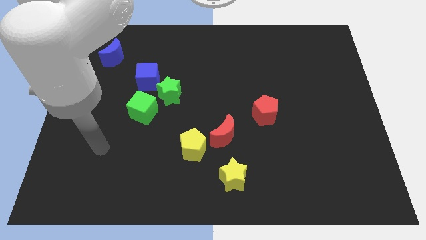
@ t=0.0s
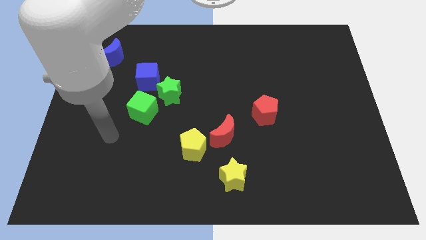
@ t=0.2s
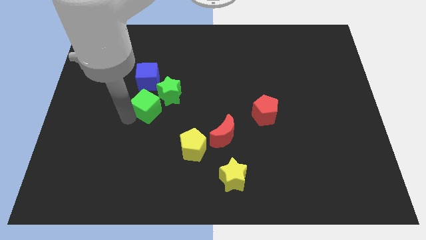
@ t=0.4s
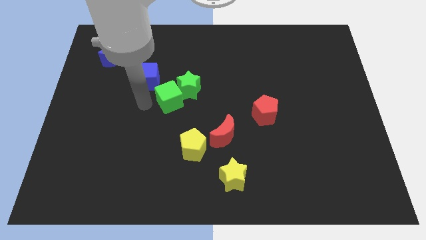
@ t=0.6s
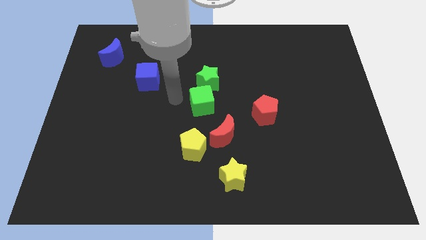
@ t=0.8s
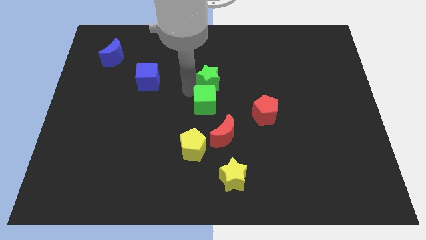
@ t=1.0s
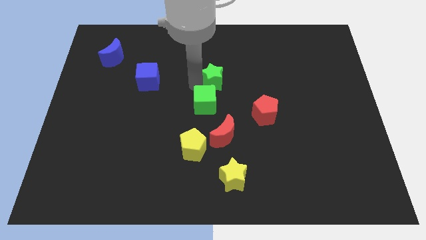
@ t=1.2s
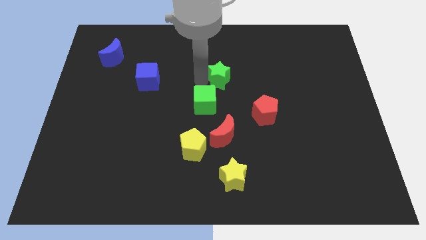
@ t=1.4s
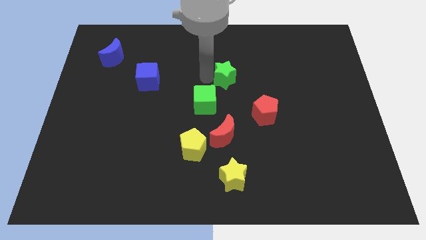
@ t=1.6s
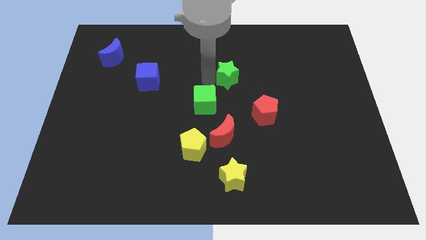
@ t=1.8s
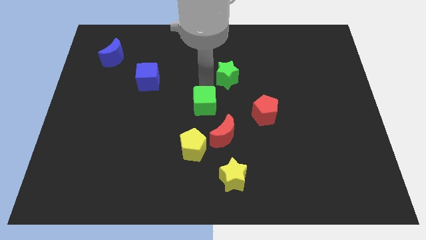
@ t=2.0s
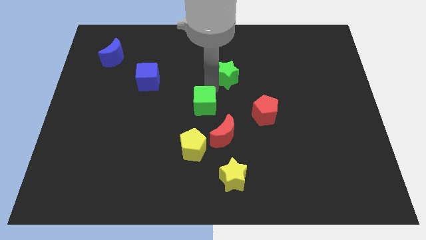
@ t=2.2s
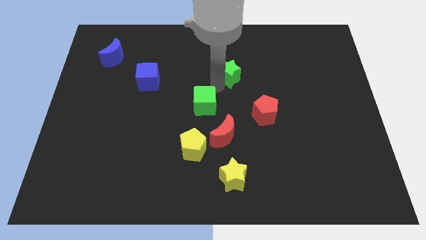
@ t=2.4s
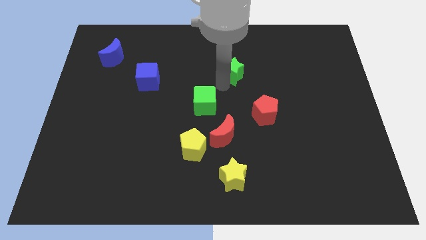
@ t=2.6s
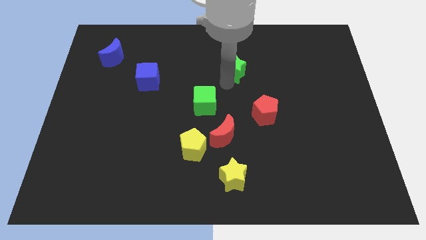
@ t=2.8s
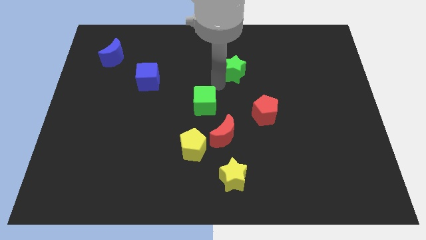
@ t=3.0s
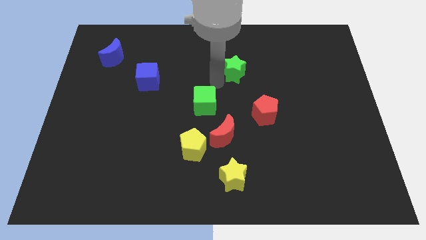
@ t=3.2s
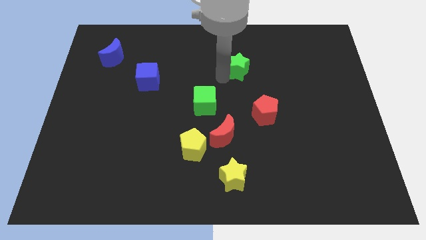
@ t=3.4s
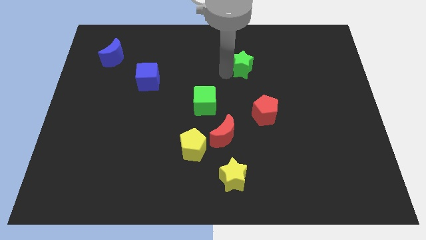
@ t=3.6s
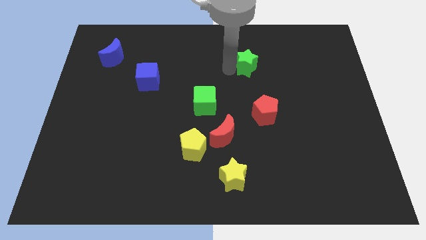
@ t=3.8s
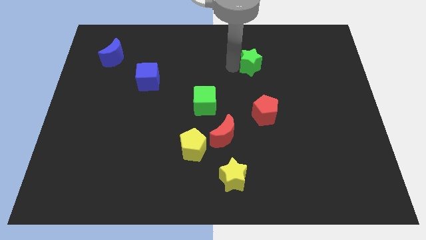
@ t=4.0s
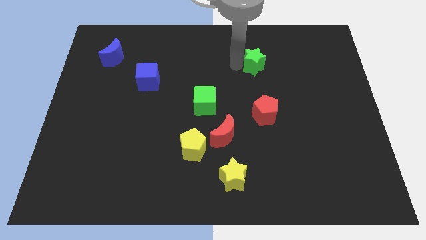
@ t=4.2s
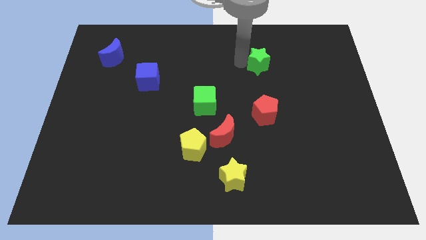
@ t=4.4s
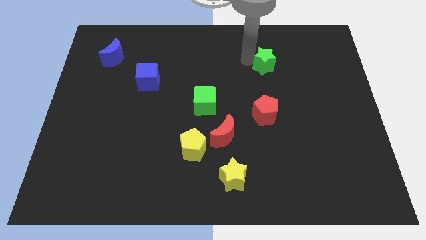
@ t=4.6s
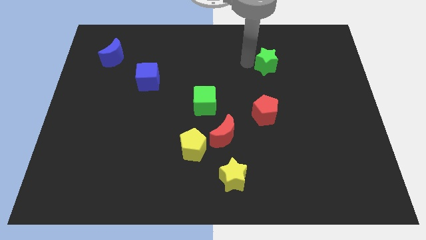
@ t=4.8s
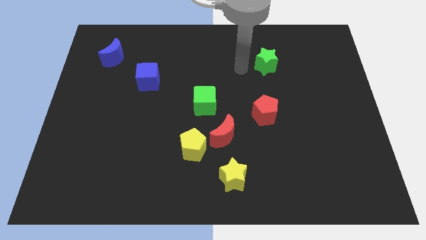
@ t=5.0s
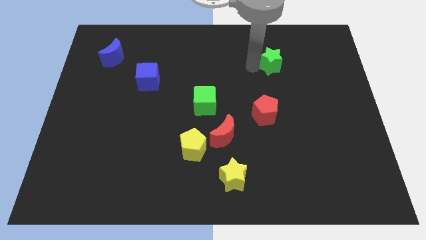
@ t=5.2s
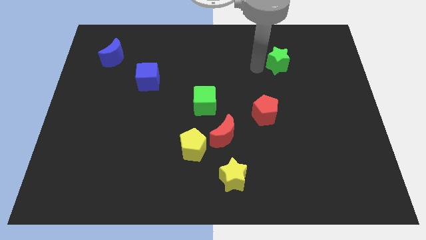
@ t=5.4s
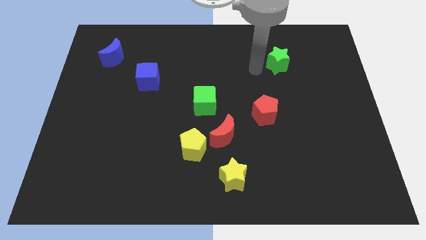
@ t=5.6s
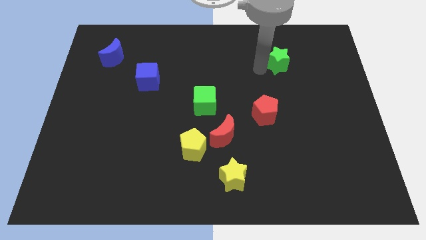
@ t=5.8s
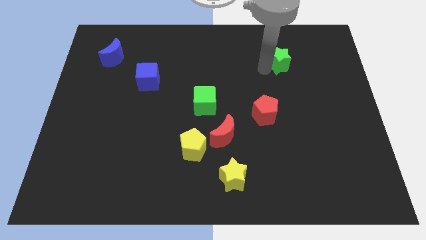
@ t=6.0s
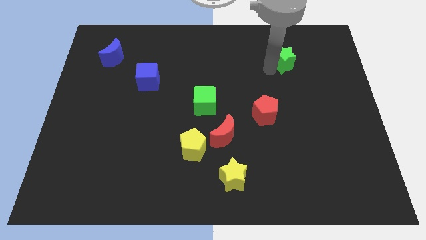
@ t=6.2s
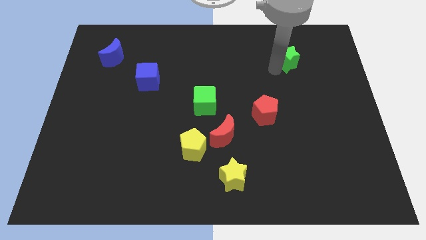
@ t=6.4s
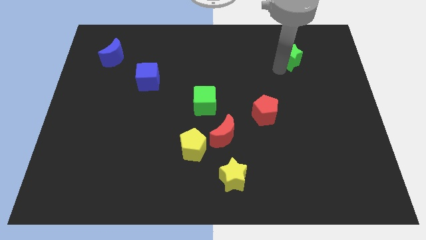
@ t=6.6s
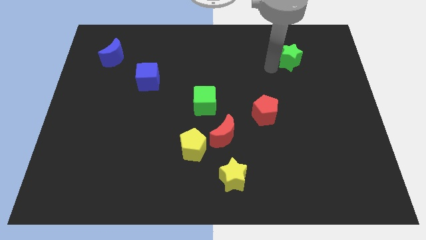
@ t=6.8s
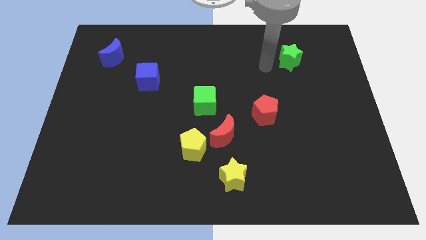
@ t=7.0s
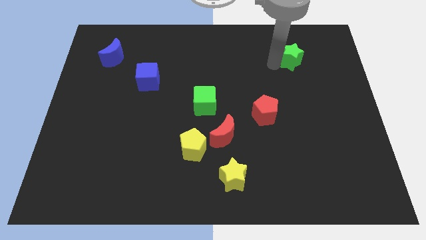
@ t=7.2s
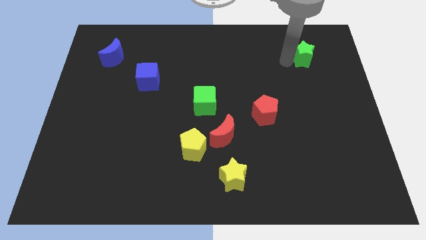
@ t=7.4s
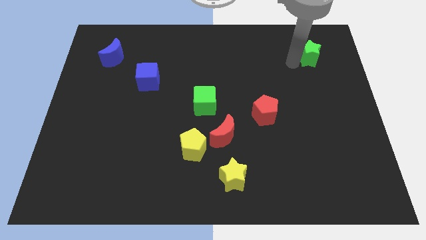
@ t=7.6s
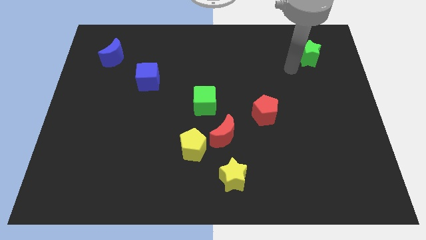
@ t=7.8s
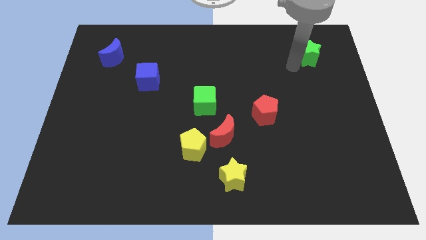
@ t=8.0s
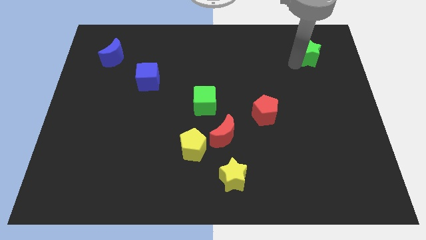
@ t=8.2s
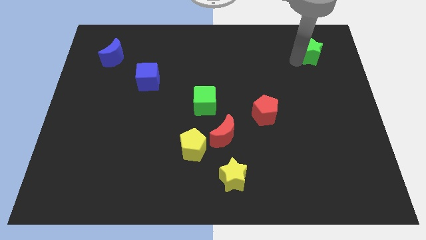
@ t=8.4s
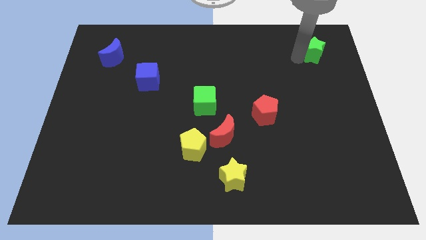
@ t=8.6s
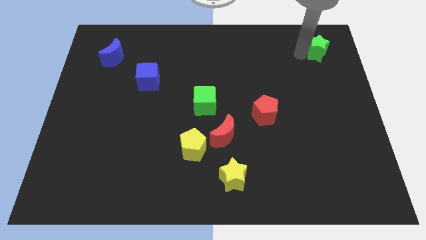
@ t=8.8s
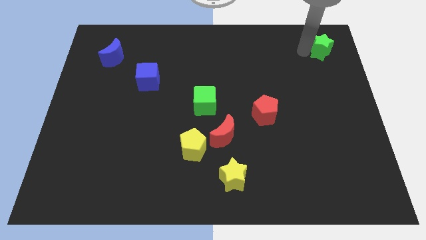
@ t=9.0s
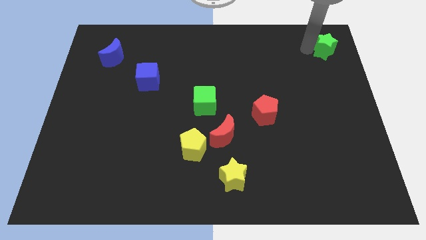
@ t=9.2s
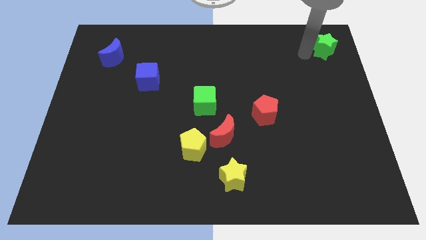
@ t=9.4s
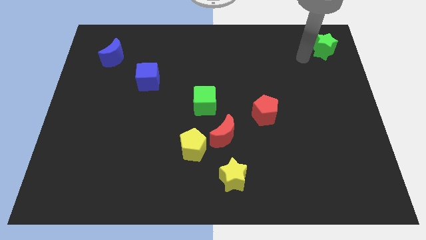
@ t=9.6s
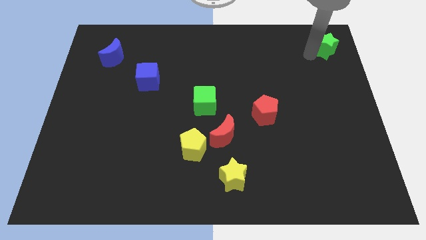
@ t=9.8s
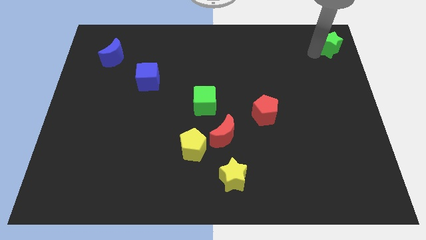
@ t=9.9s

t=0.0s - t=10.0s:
put the green star to the top right
